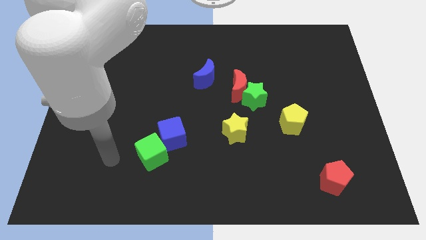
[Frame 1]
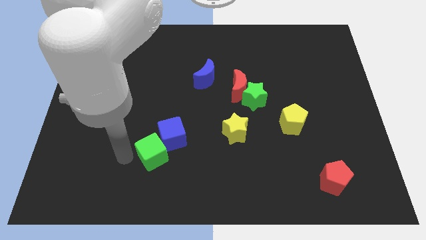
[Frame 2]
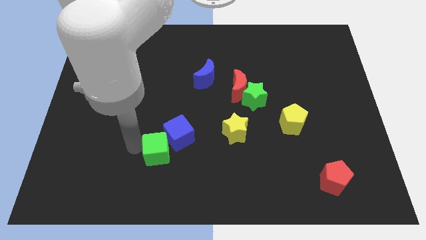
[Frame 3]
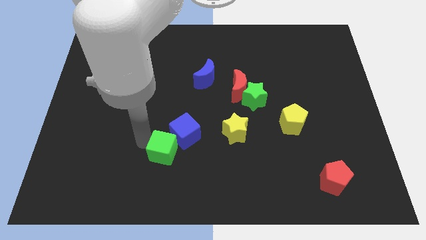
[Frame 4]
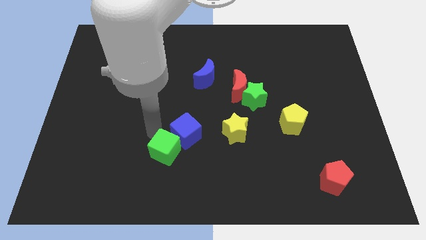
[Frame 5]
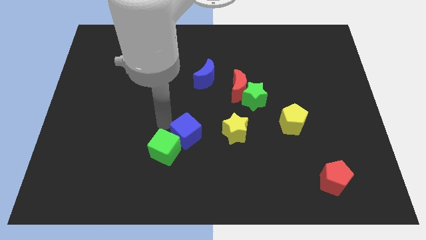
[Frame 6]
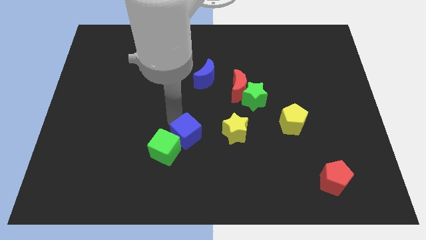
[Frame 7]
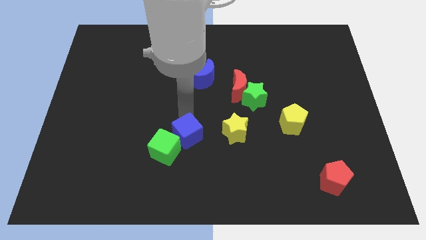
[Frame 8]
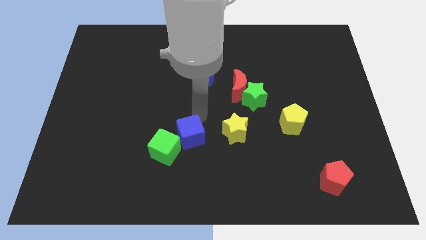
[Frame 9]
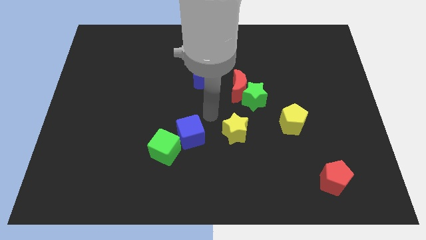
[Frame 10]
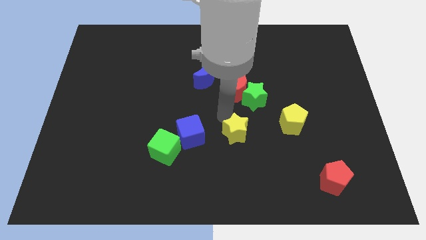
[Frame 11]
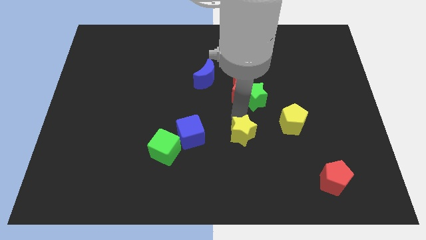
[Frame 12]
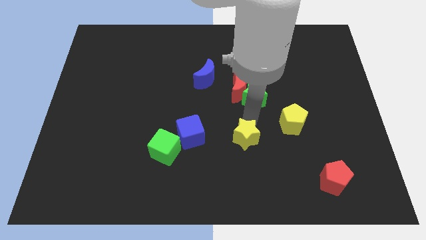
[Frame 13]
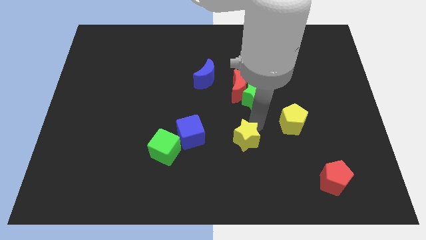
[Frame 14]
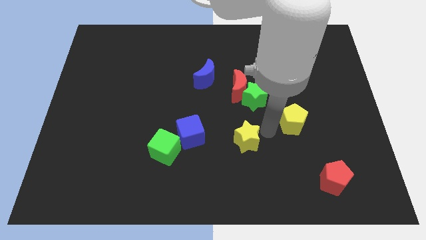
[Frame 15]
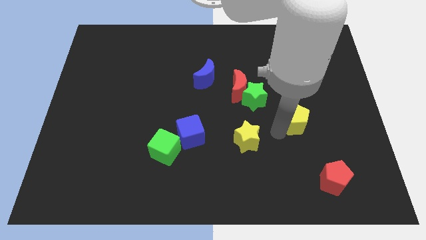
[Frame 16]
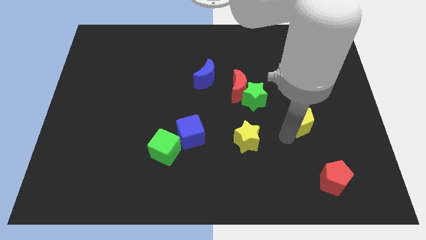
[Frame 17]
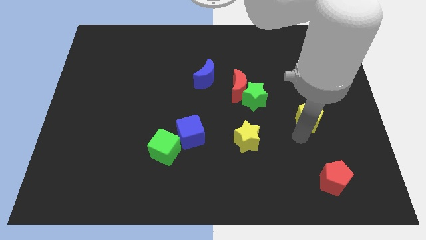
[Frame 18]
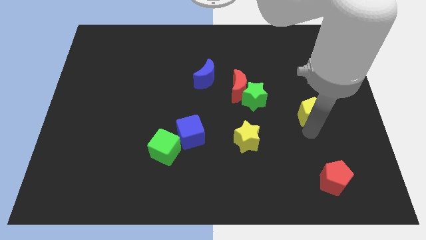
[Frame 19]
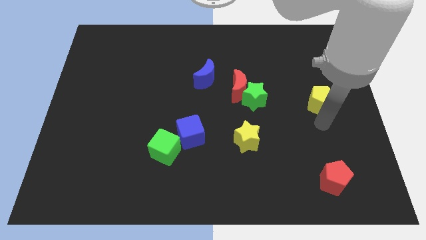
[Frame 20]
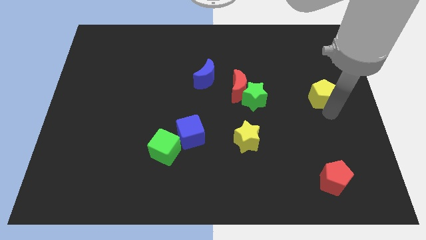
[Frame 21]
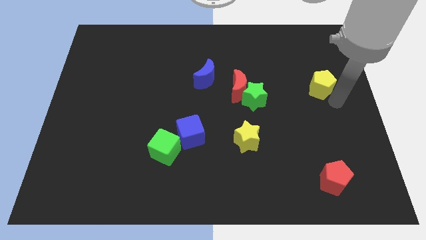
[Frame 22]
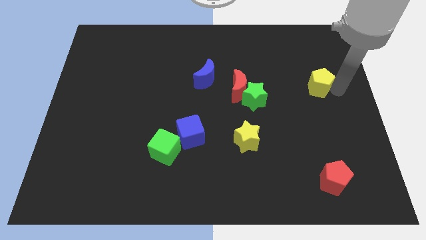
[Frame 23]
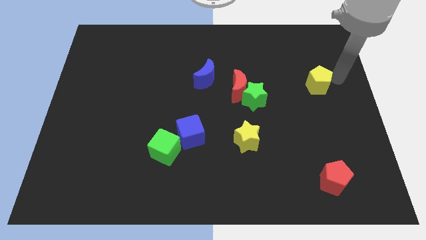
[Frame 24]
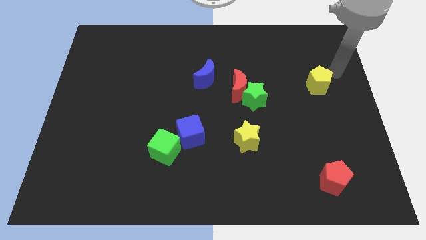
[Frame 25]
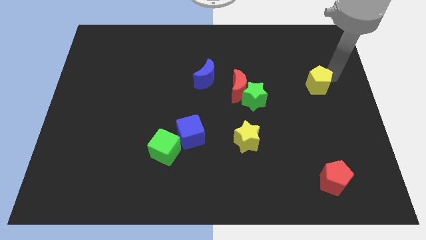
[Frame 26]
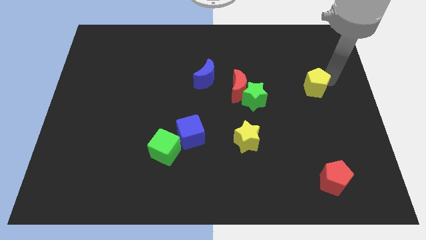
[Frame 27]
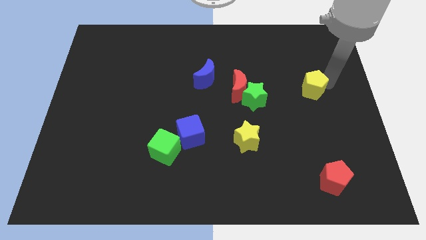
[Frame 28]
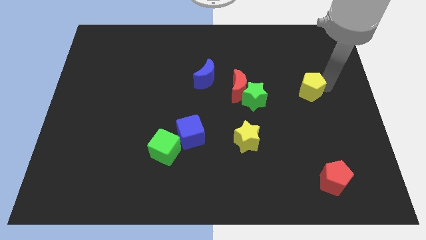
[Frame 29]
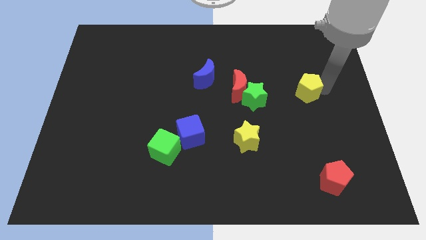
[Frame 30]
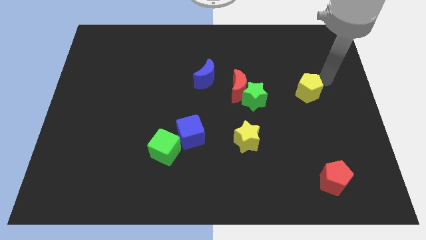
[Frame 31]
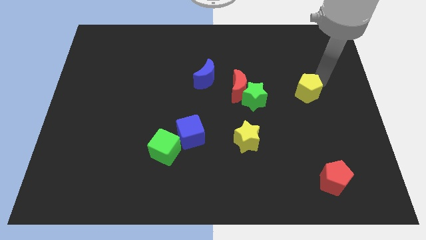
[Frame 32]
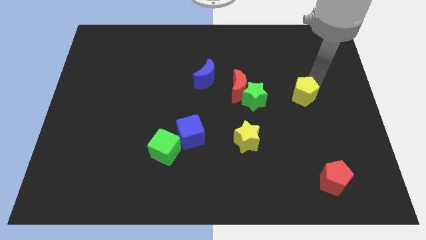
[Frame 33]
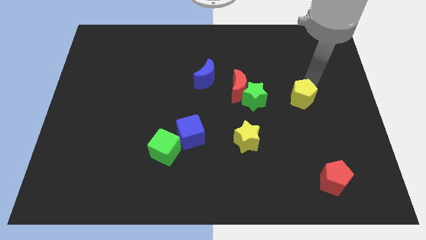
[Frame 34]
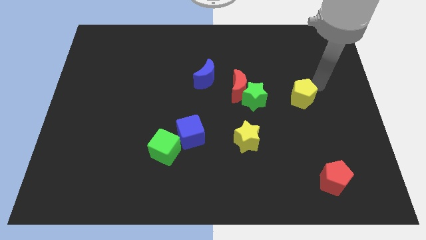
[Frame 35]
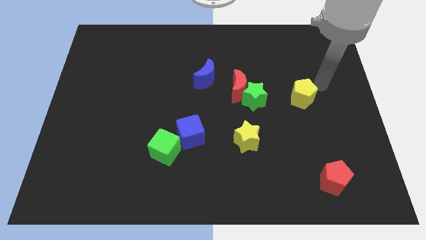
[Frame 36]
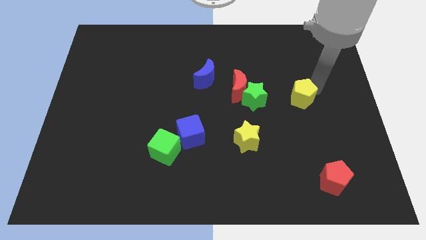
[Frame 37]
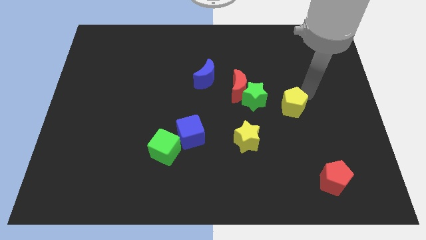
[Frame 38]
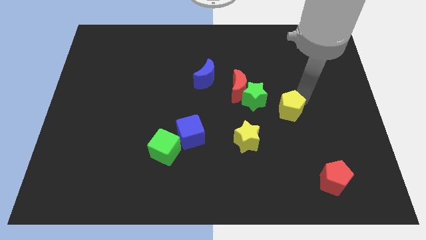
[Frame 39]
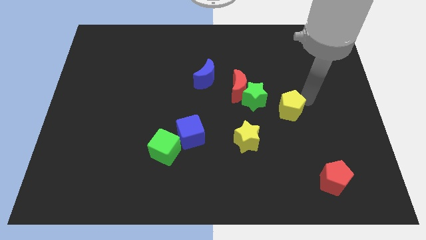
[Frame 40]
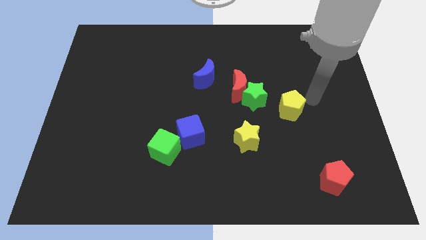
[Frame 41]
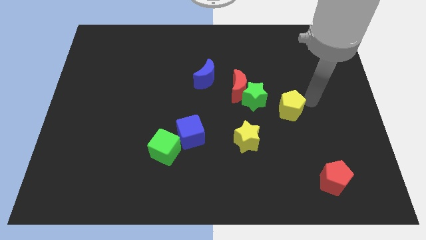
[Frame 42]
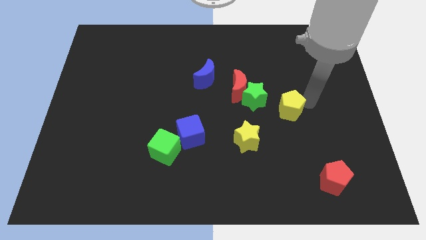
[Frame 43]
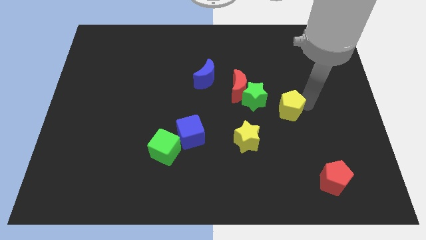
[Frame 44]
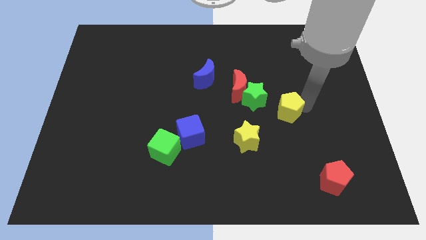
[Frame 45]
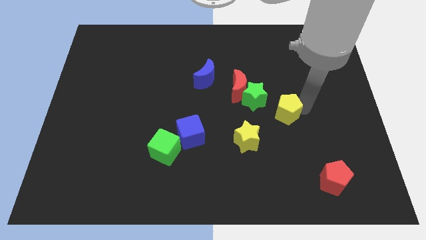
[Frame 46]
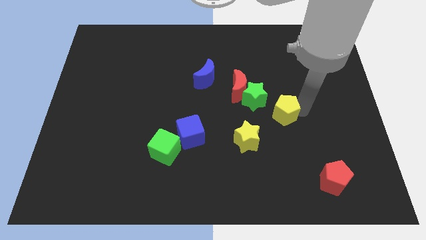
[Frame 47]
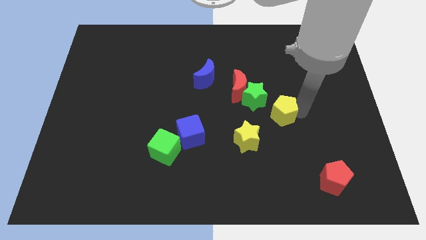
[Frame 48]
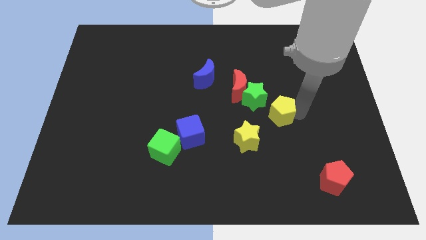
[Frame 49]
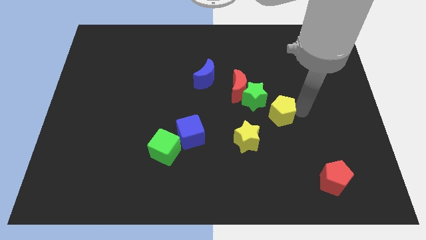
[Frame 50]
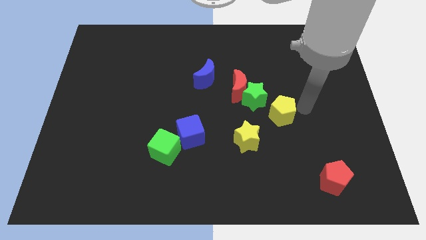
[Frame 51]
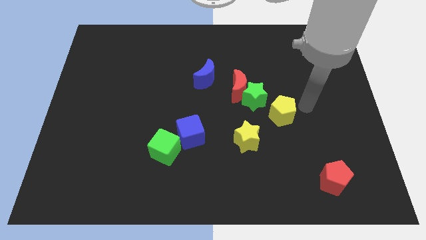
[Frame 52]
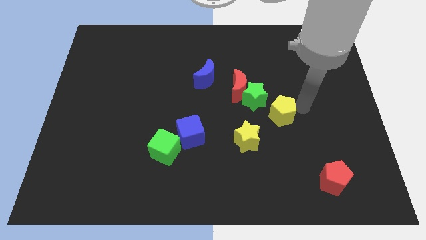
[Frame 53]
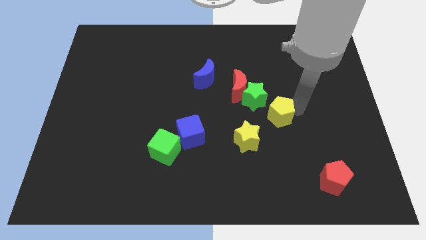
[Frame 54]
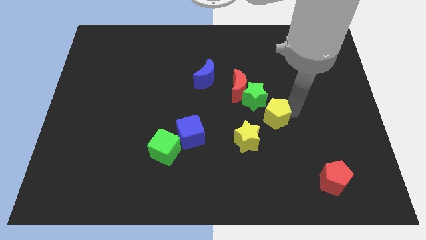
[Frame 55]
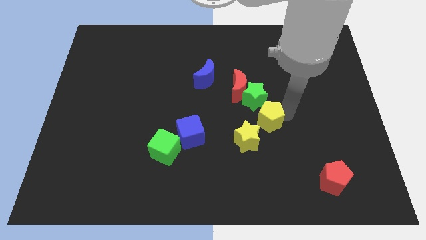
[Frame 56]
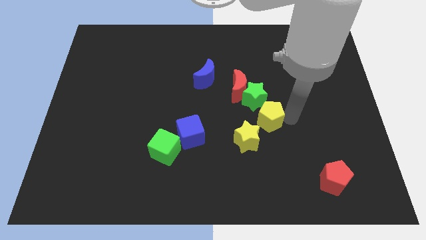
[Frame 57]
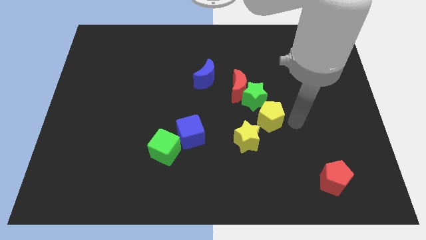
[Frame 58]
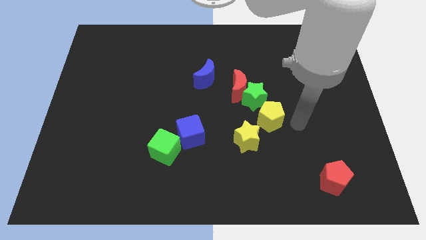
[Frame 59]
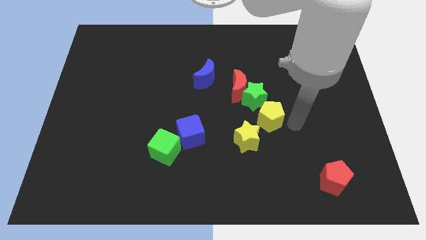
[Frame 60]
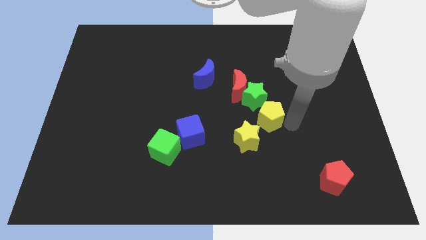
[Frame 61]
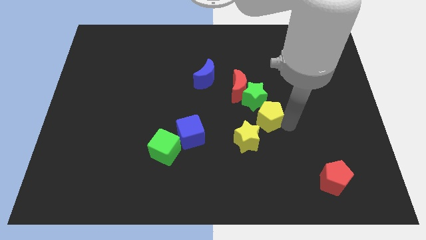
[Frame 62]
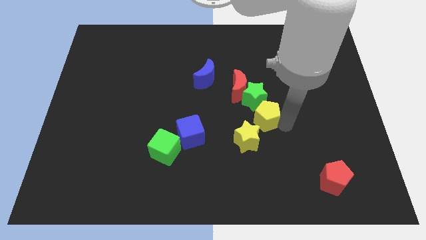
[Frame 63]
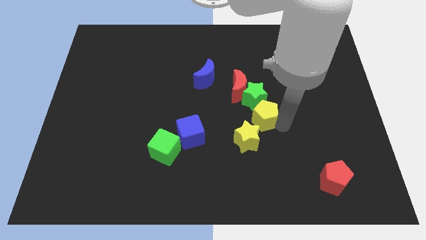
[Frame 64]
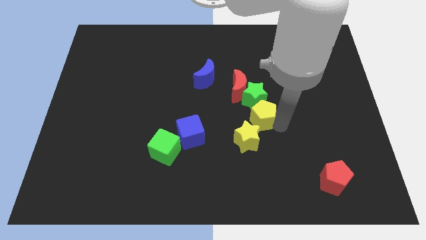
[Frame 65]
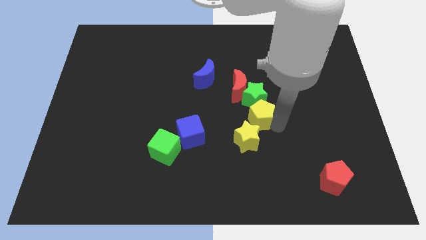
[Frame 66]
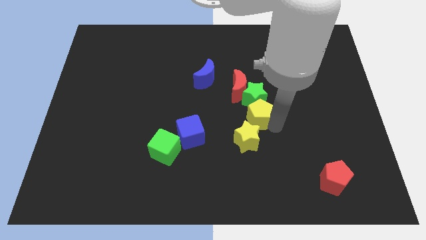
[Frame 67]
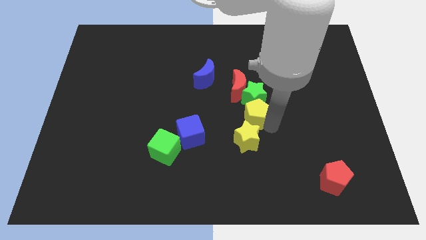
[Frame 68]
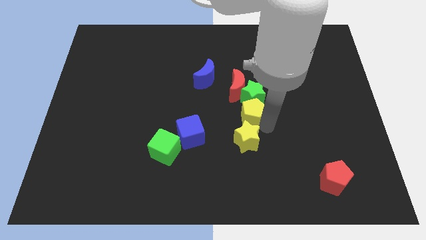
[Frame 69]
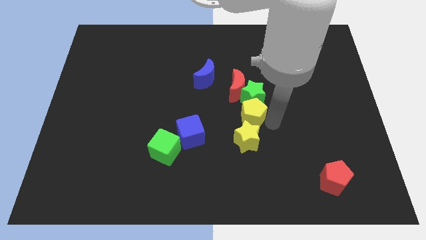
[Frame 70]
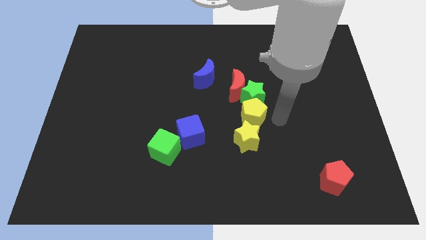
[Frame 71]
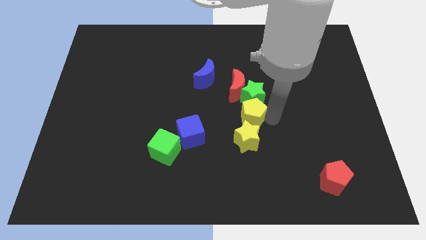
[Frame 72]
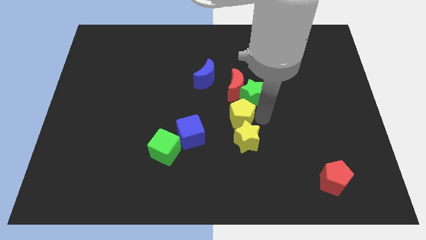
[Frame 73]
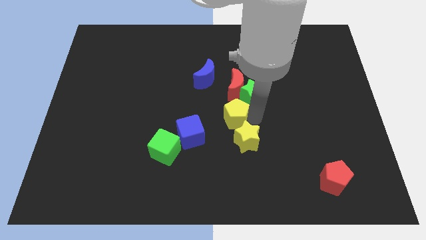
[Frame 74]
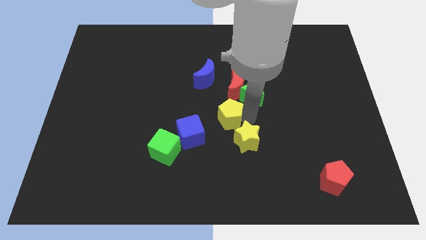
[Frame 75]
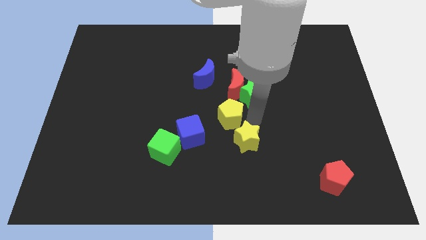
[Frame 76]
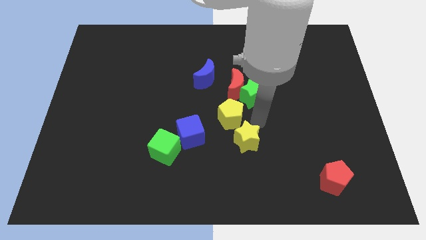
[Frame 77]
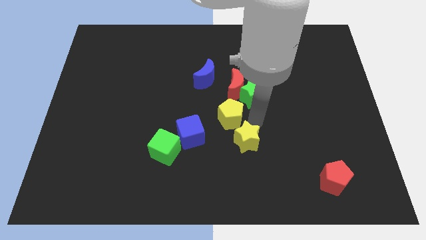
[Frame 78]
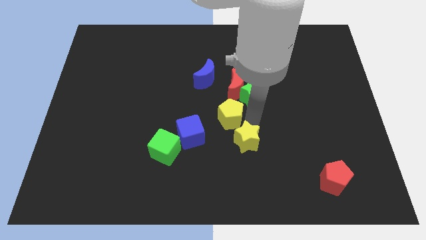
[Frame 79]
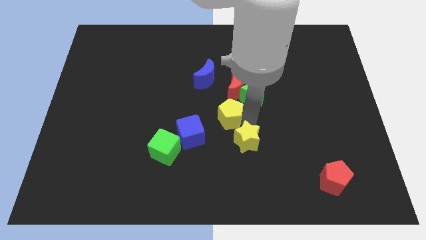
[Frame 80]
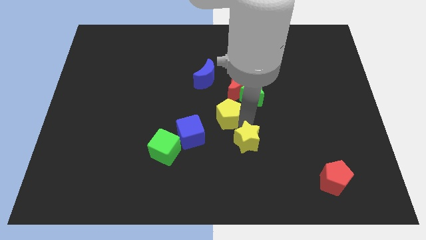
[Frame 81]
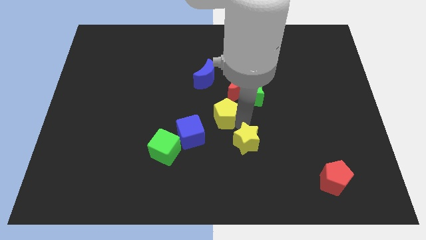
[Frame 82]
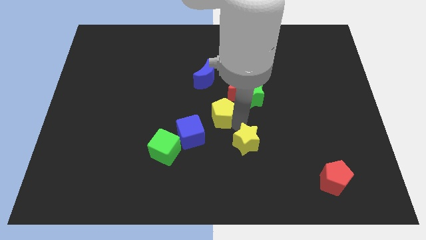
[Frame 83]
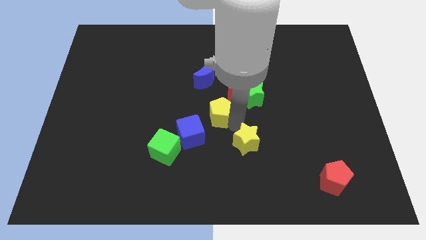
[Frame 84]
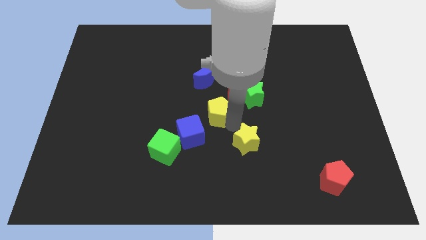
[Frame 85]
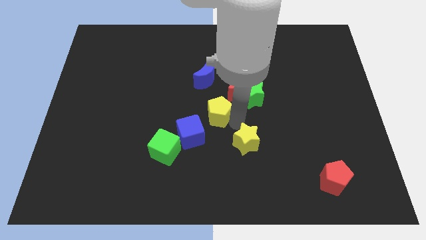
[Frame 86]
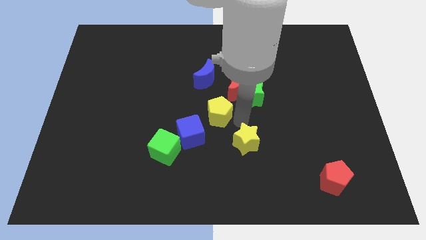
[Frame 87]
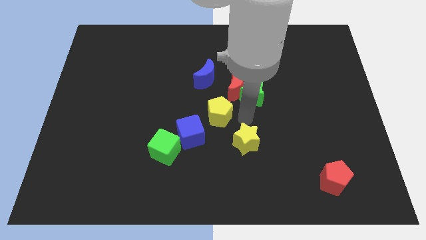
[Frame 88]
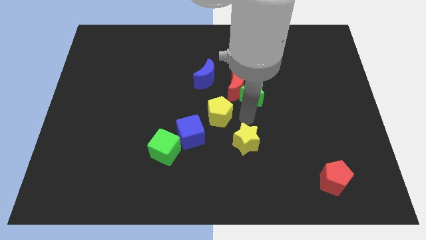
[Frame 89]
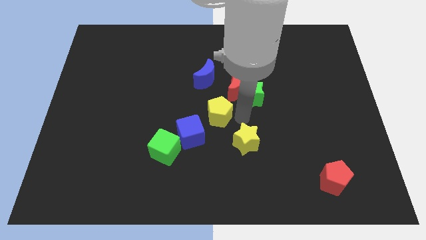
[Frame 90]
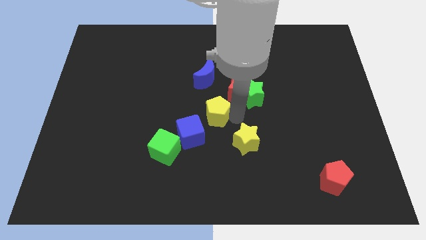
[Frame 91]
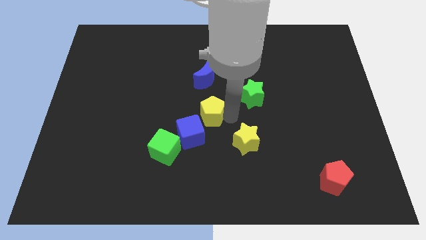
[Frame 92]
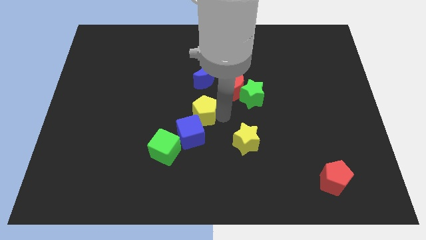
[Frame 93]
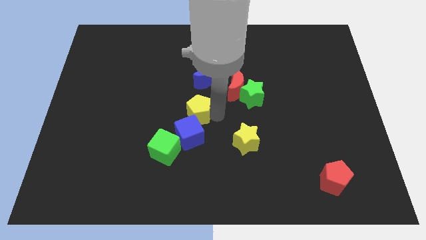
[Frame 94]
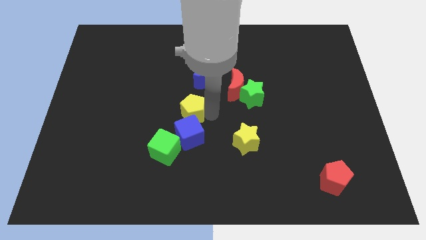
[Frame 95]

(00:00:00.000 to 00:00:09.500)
put the yellow pentagon to the top left side of the blue cube
